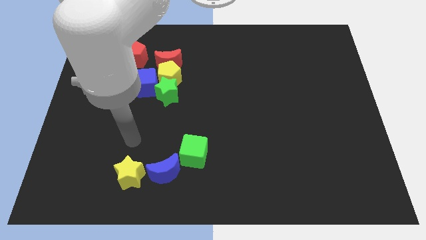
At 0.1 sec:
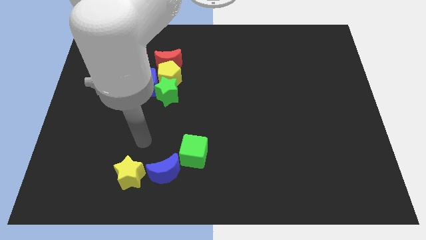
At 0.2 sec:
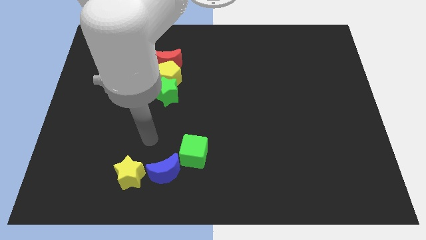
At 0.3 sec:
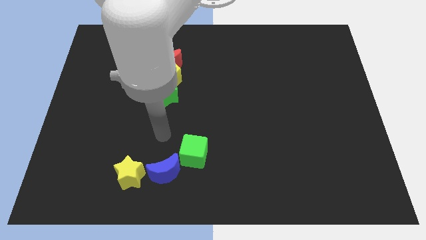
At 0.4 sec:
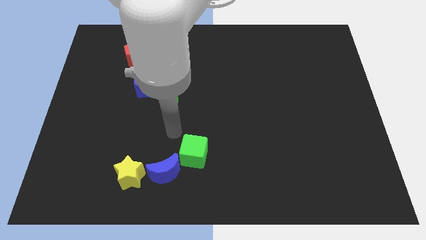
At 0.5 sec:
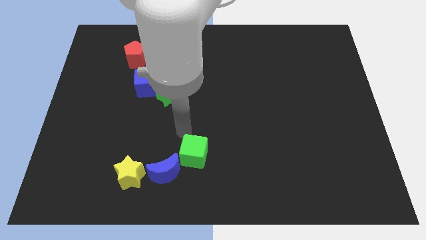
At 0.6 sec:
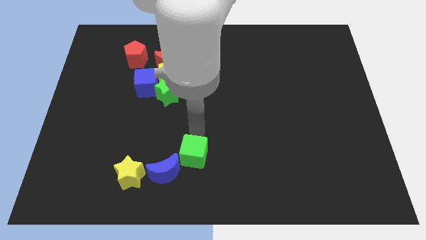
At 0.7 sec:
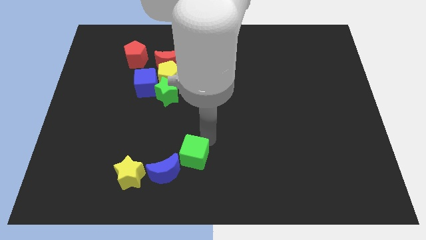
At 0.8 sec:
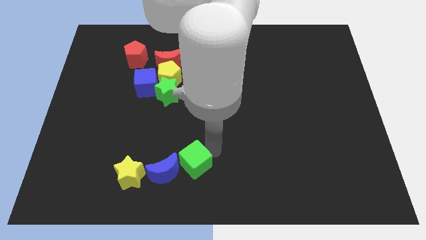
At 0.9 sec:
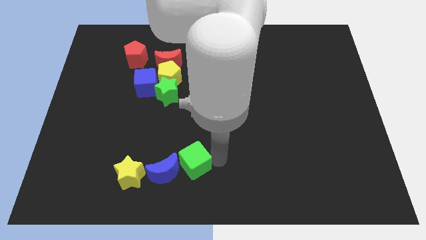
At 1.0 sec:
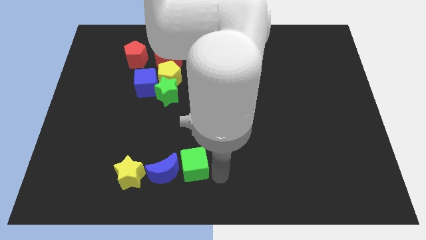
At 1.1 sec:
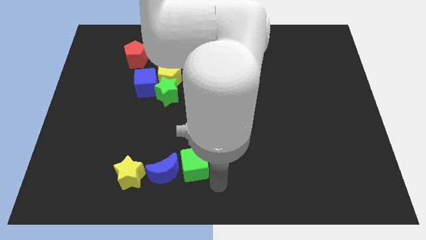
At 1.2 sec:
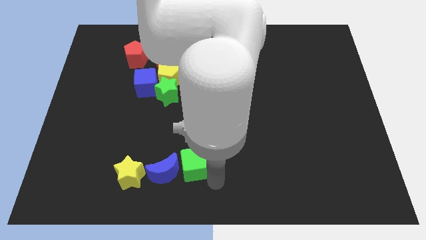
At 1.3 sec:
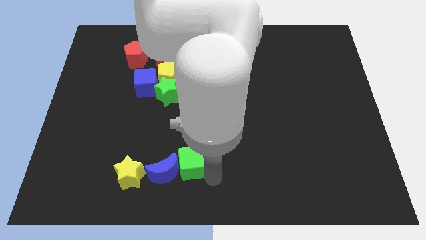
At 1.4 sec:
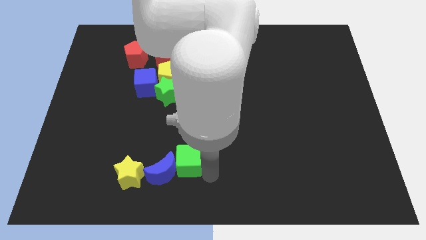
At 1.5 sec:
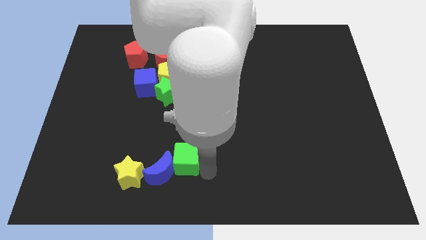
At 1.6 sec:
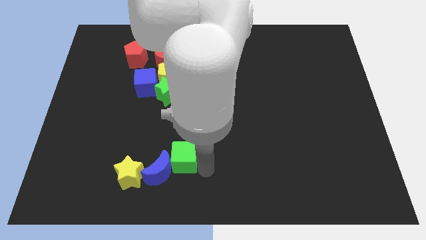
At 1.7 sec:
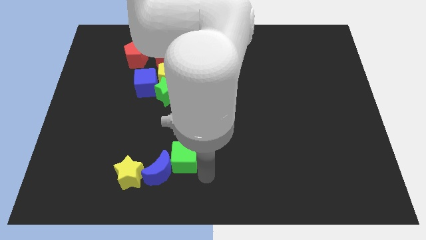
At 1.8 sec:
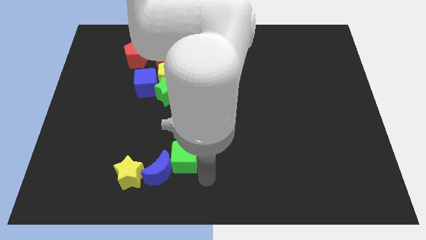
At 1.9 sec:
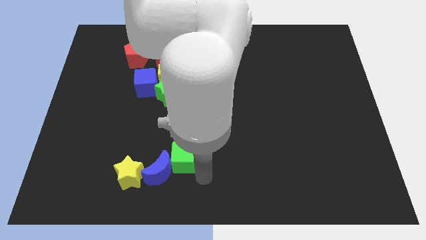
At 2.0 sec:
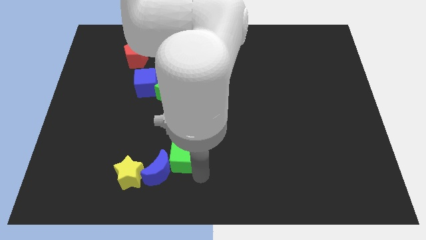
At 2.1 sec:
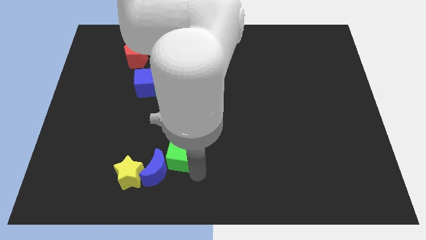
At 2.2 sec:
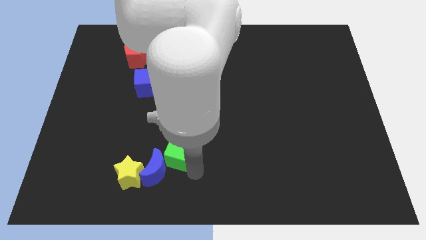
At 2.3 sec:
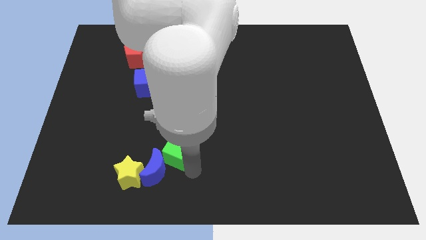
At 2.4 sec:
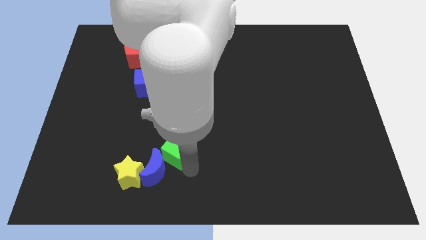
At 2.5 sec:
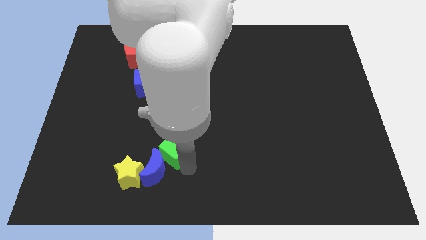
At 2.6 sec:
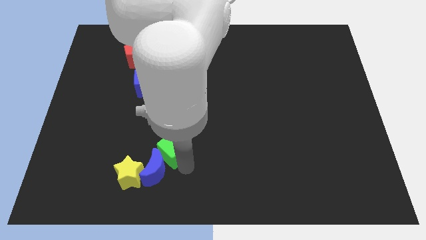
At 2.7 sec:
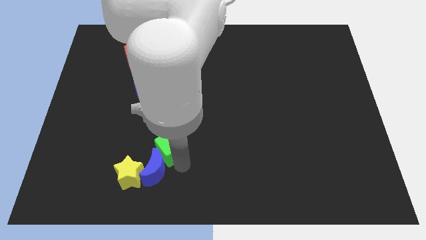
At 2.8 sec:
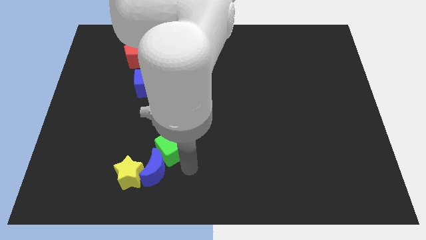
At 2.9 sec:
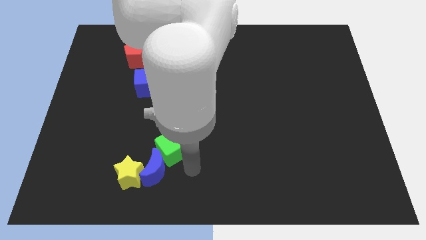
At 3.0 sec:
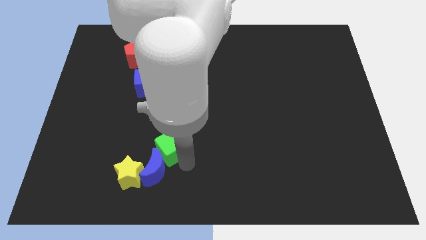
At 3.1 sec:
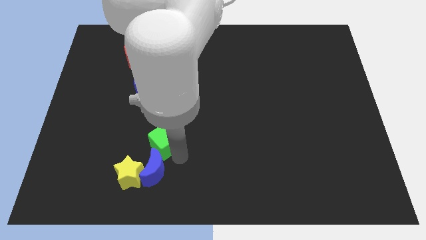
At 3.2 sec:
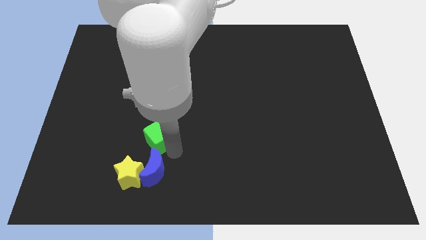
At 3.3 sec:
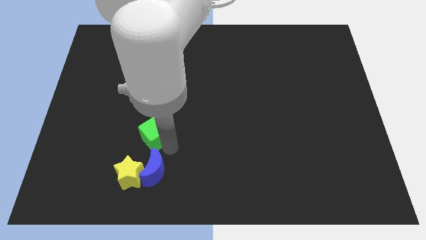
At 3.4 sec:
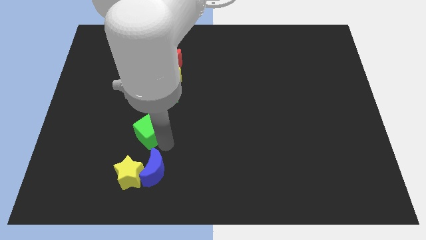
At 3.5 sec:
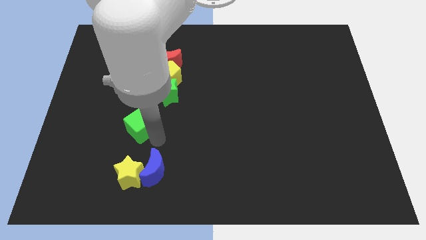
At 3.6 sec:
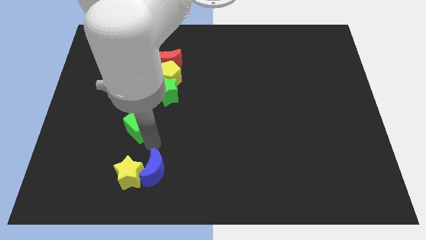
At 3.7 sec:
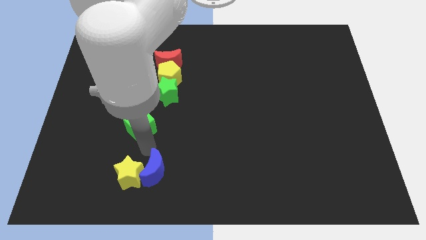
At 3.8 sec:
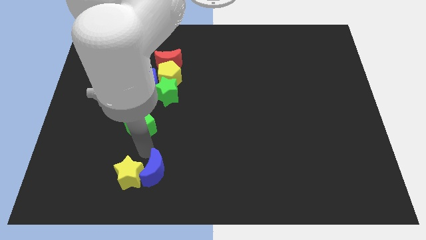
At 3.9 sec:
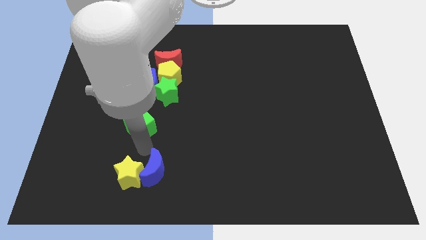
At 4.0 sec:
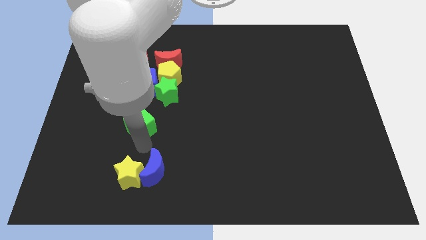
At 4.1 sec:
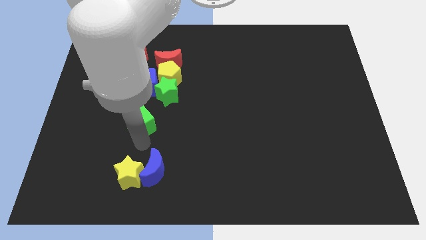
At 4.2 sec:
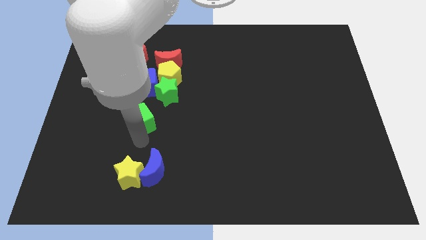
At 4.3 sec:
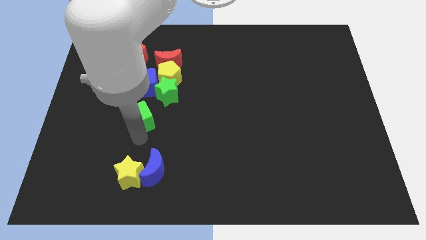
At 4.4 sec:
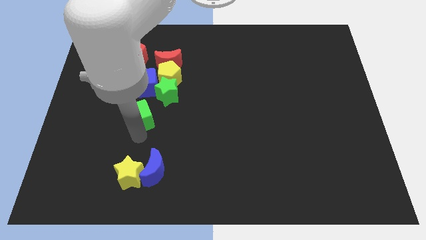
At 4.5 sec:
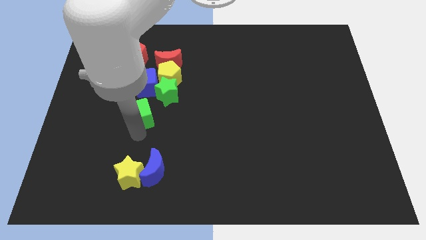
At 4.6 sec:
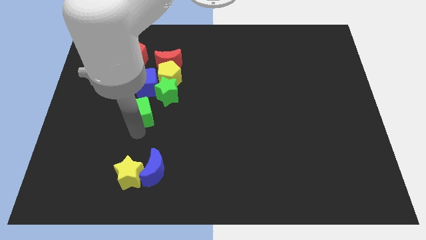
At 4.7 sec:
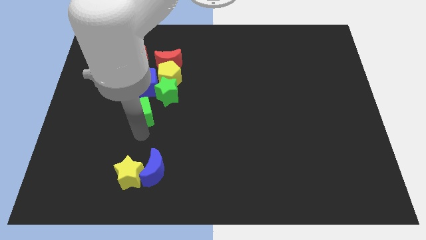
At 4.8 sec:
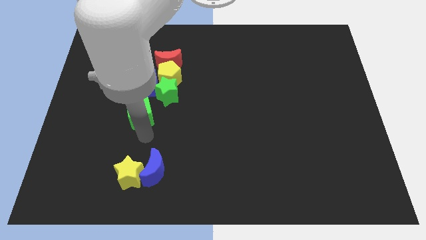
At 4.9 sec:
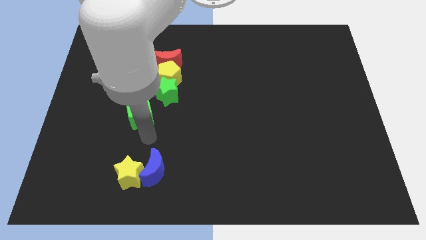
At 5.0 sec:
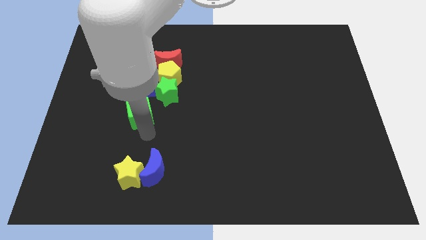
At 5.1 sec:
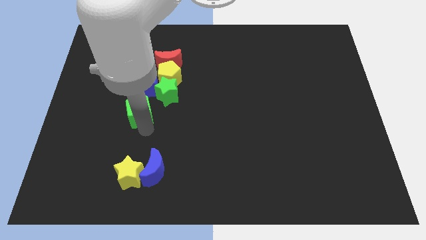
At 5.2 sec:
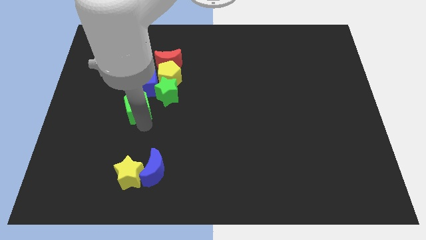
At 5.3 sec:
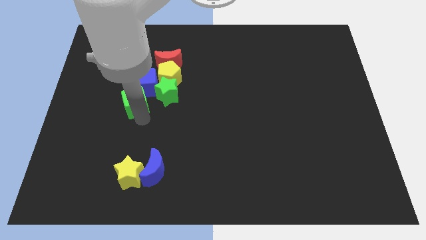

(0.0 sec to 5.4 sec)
slide the green cube to the bottom of the red pentagon

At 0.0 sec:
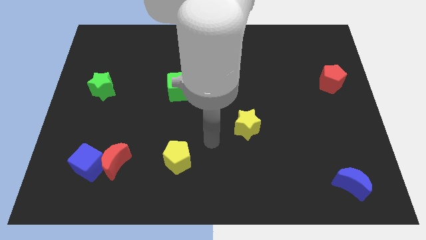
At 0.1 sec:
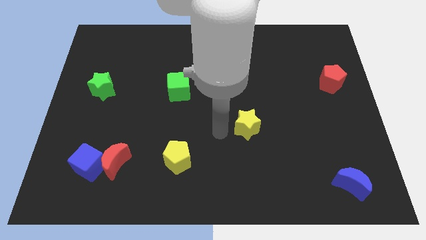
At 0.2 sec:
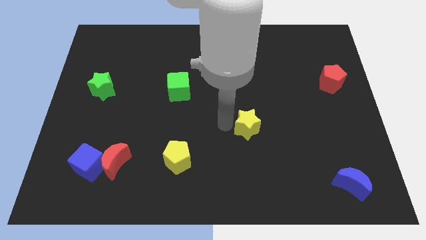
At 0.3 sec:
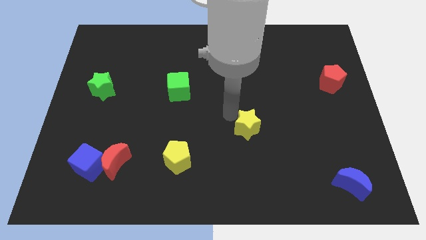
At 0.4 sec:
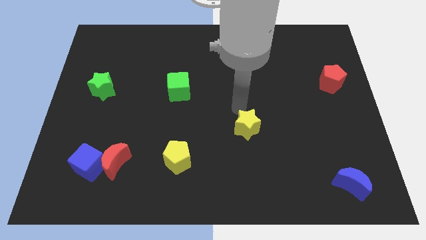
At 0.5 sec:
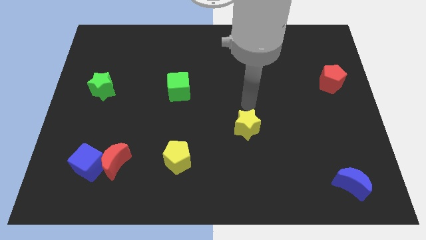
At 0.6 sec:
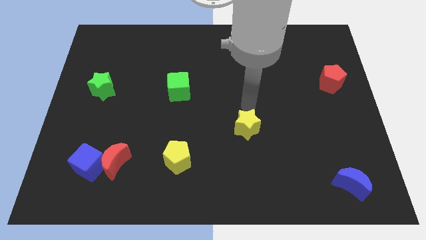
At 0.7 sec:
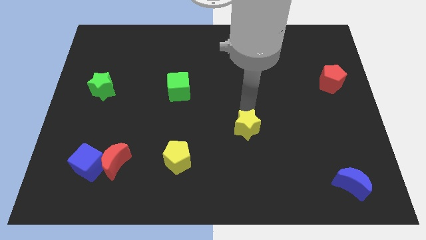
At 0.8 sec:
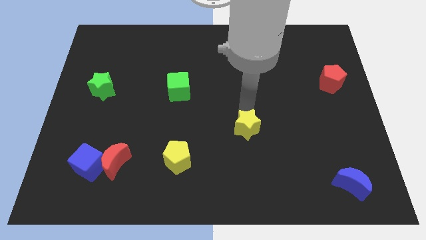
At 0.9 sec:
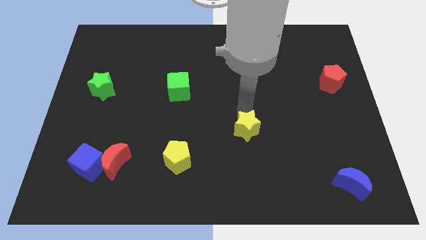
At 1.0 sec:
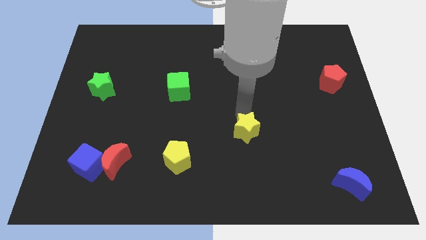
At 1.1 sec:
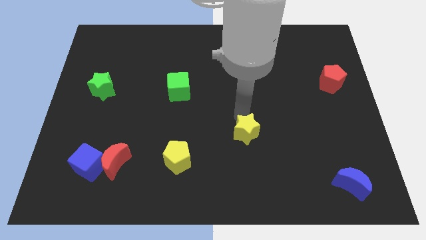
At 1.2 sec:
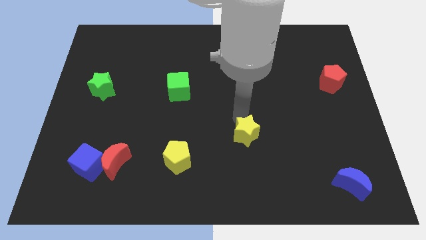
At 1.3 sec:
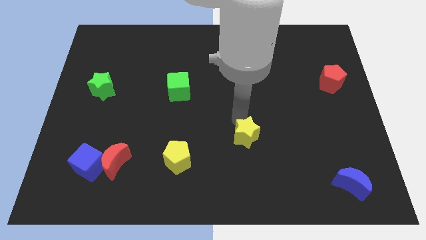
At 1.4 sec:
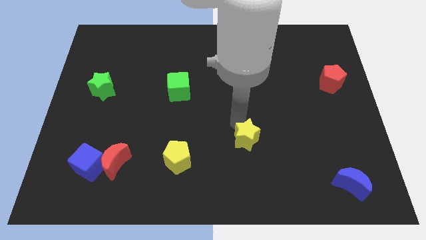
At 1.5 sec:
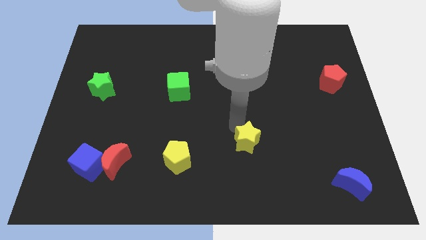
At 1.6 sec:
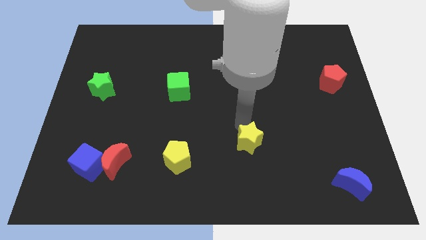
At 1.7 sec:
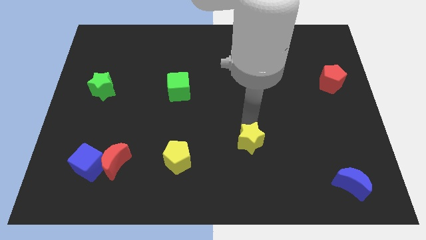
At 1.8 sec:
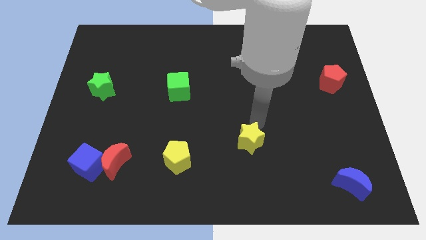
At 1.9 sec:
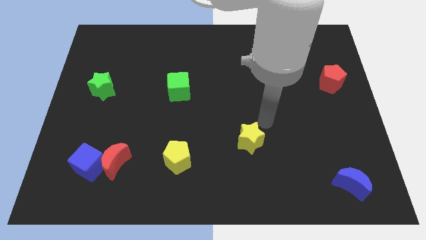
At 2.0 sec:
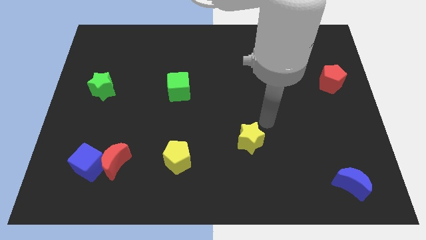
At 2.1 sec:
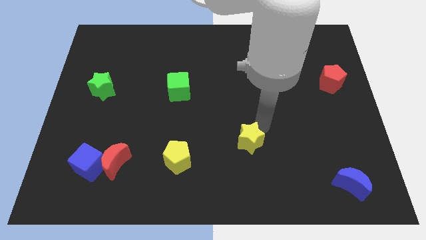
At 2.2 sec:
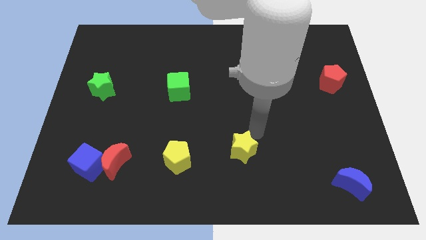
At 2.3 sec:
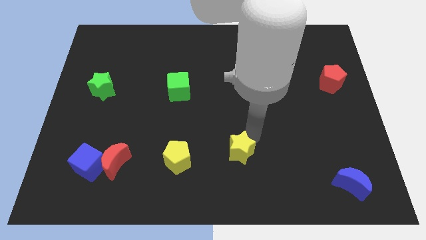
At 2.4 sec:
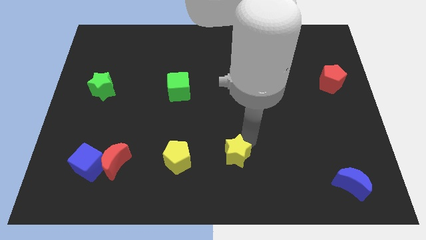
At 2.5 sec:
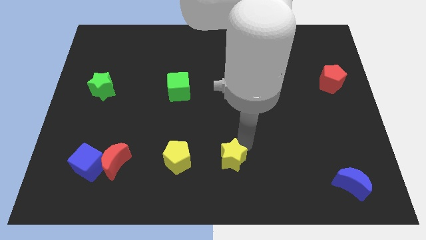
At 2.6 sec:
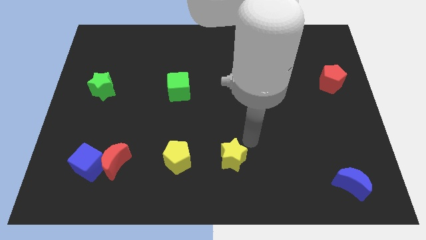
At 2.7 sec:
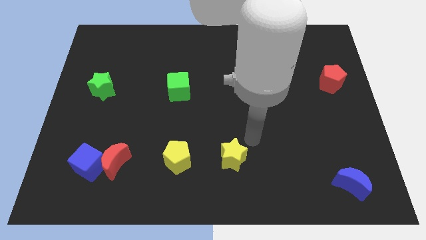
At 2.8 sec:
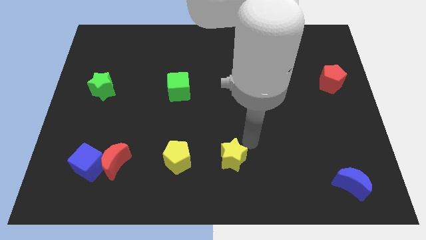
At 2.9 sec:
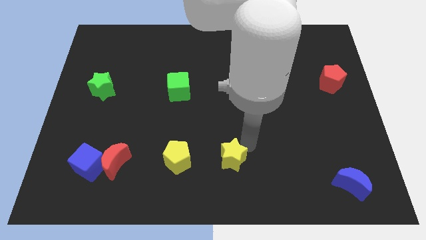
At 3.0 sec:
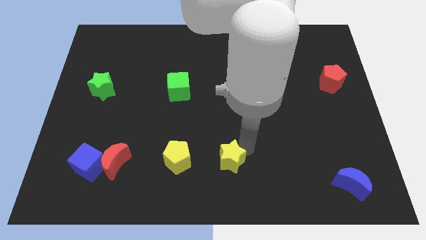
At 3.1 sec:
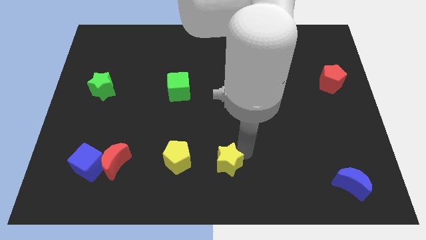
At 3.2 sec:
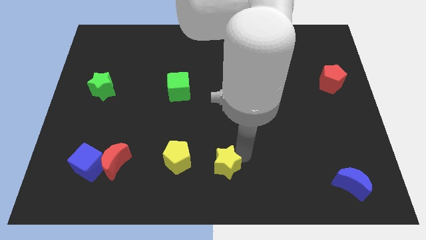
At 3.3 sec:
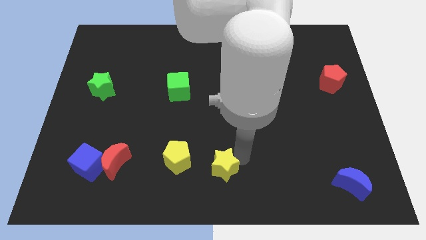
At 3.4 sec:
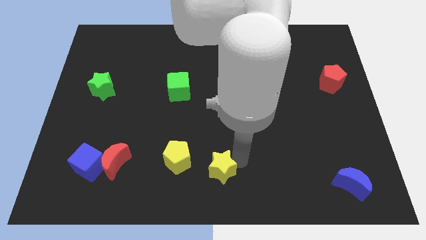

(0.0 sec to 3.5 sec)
slide the yellow star to the bottom right side of the yellow pentagon
